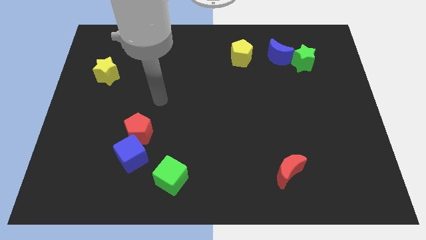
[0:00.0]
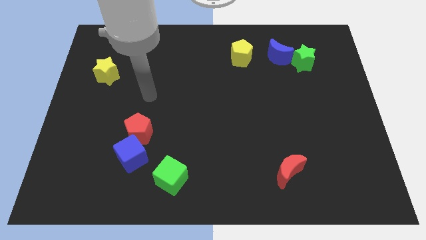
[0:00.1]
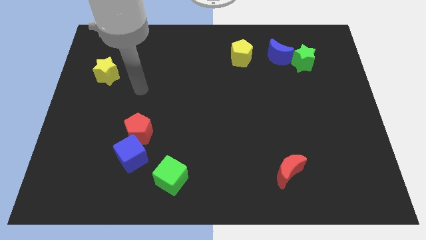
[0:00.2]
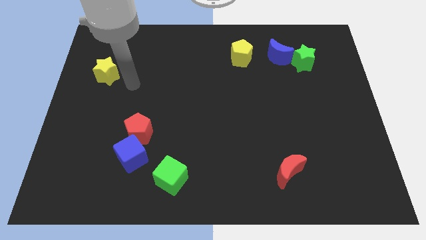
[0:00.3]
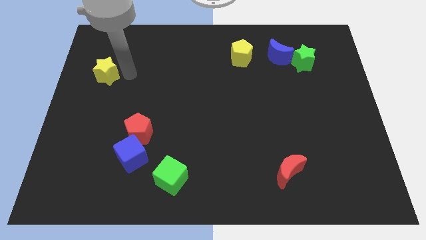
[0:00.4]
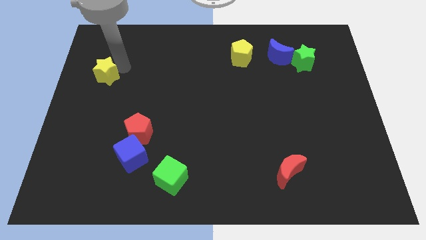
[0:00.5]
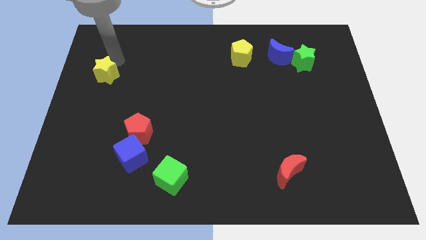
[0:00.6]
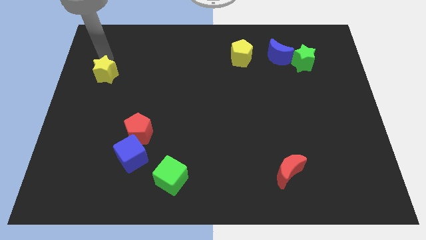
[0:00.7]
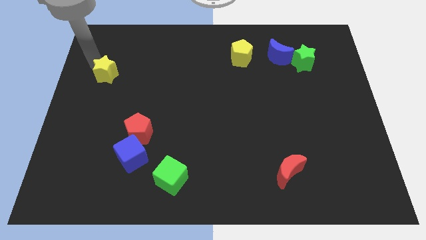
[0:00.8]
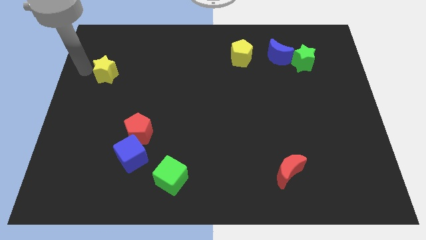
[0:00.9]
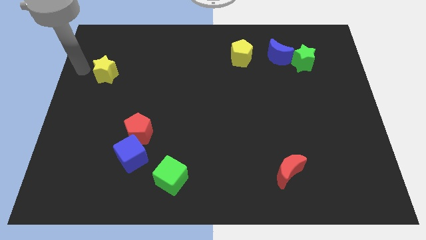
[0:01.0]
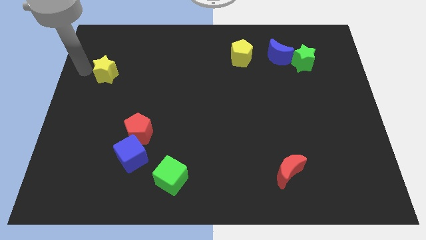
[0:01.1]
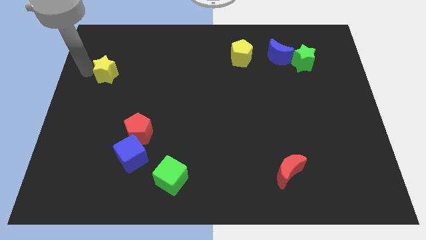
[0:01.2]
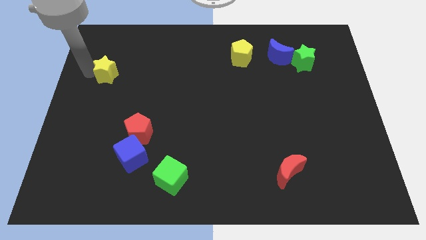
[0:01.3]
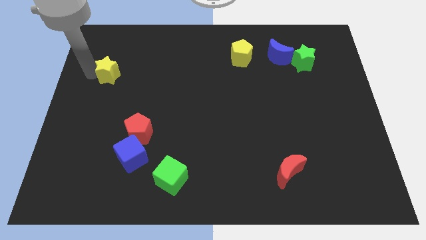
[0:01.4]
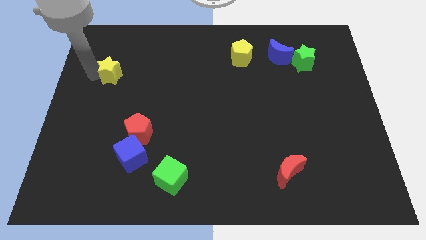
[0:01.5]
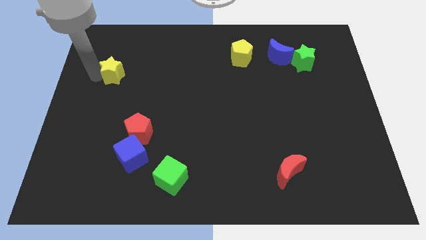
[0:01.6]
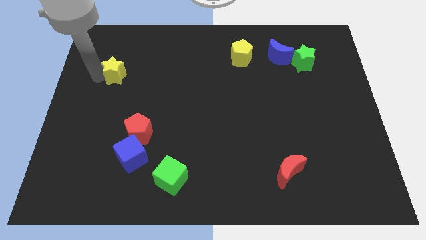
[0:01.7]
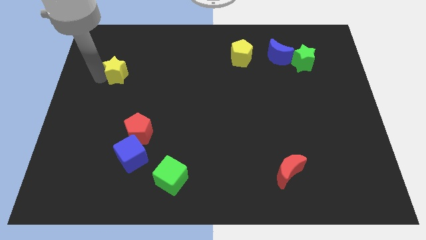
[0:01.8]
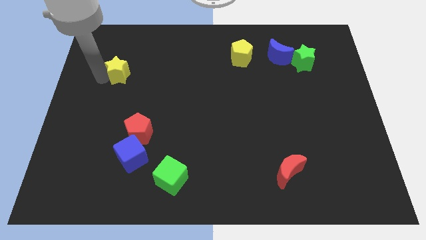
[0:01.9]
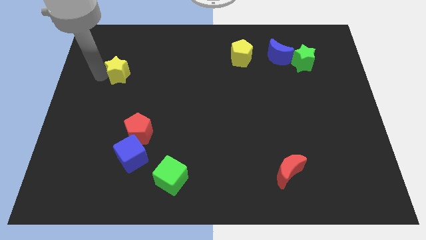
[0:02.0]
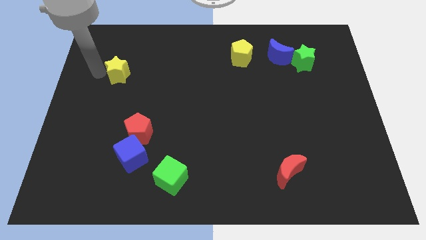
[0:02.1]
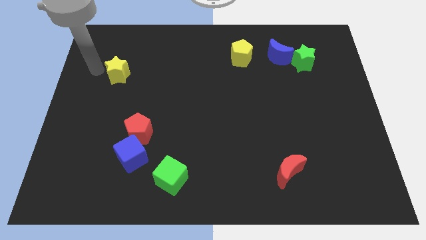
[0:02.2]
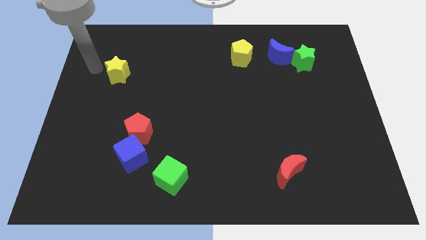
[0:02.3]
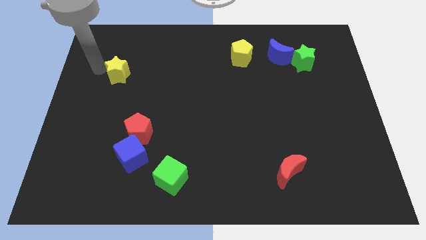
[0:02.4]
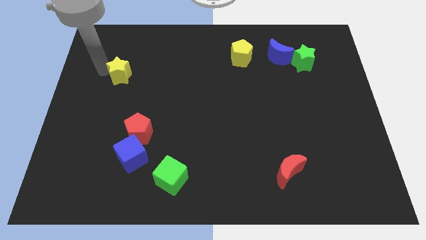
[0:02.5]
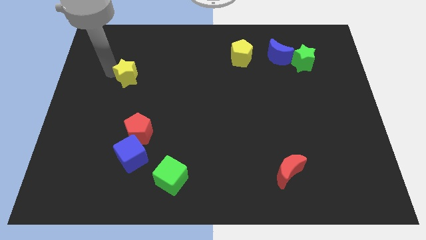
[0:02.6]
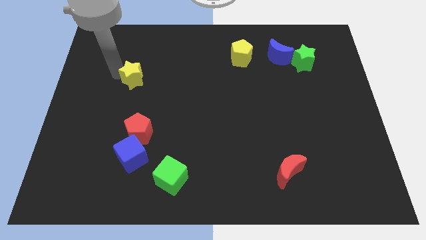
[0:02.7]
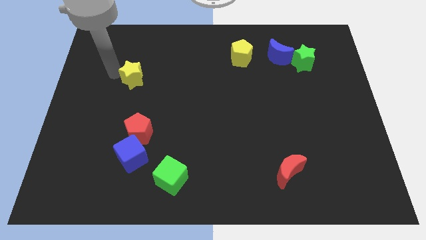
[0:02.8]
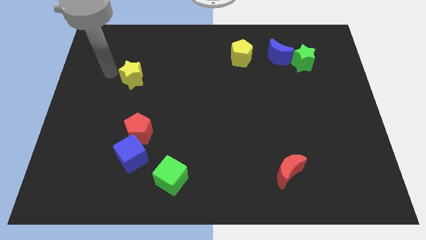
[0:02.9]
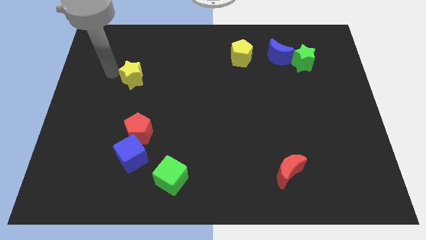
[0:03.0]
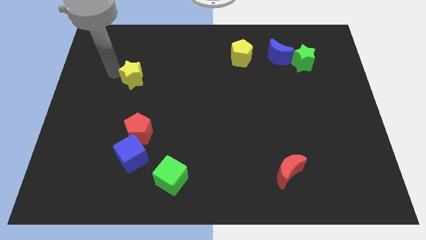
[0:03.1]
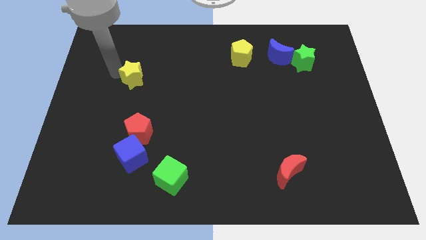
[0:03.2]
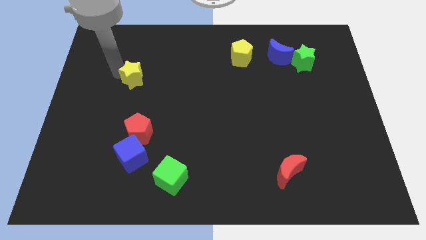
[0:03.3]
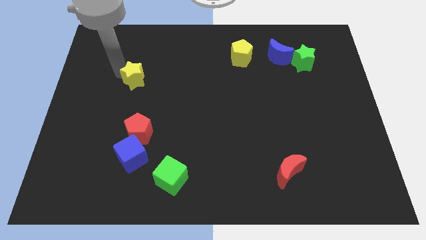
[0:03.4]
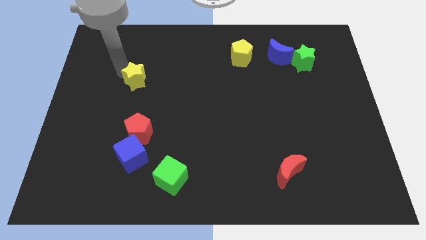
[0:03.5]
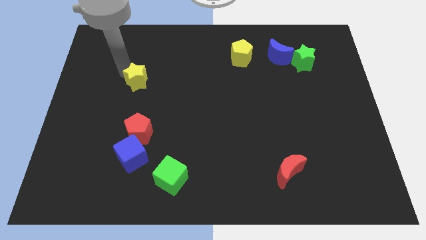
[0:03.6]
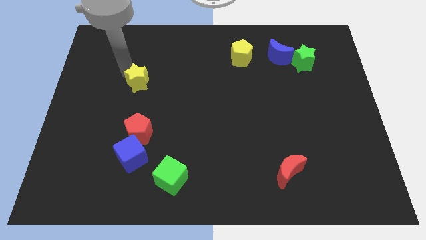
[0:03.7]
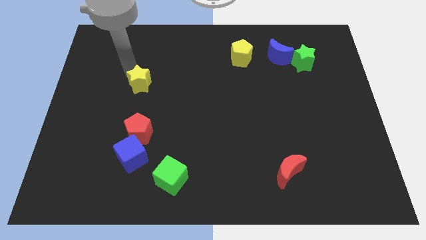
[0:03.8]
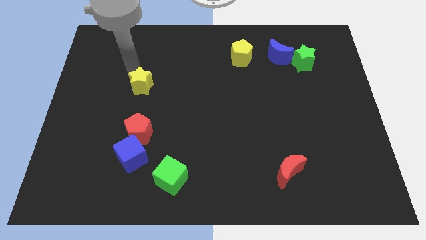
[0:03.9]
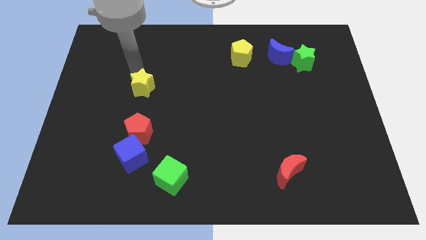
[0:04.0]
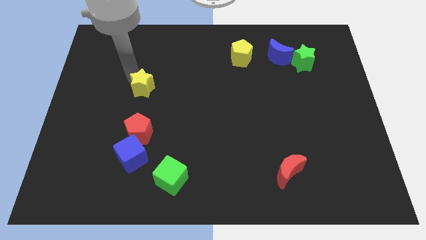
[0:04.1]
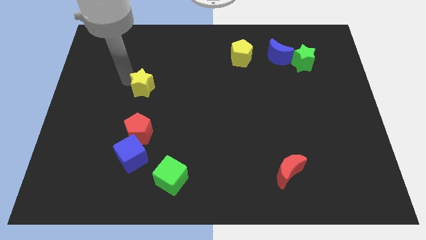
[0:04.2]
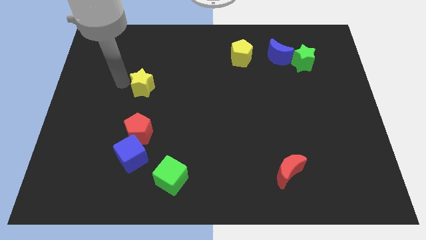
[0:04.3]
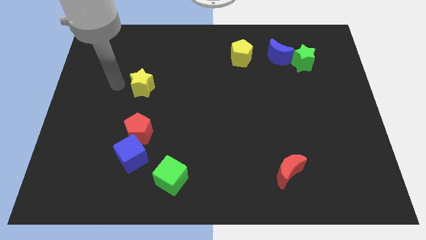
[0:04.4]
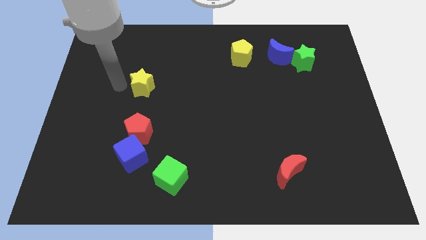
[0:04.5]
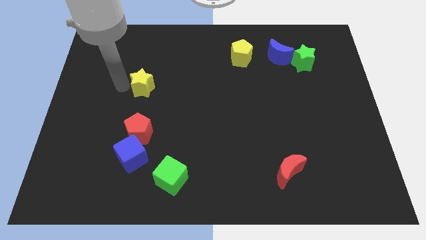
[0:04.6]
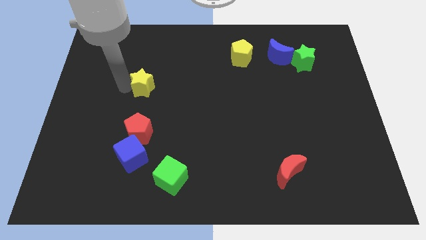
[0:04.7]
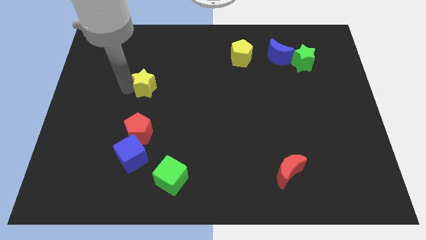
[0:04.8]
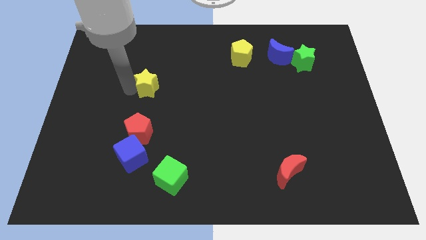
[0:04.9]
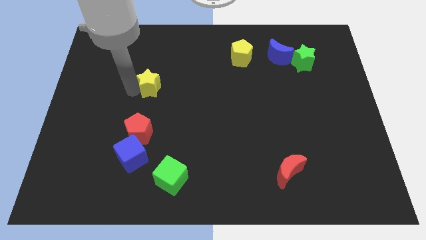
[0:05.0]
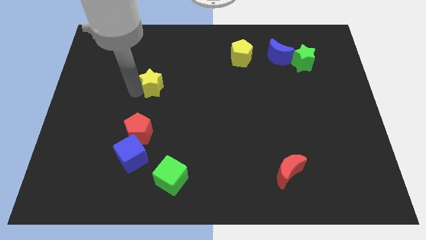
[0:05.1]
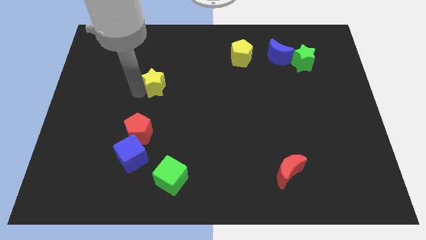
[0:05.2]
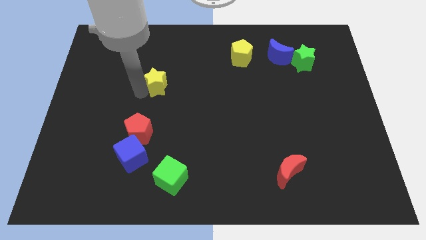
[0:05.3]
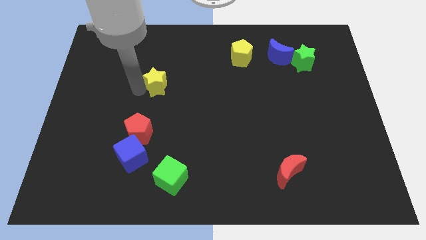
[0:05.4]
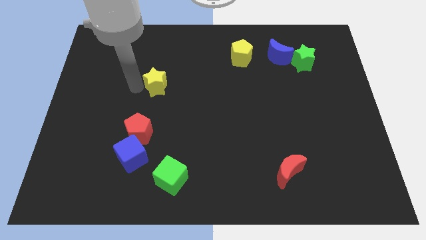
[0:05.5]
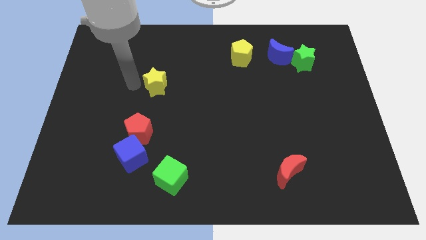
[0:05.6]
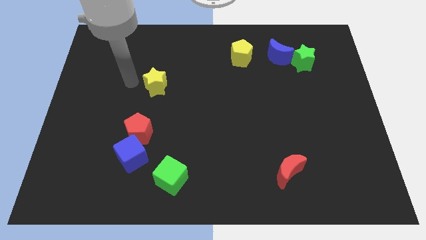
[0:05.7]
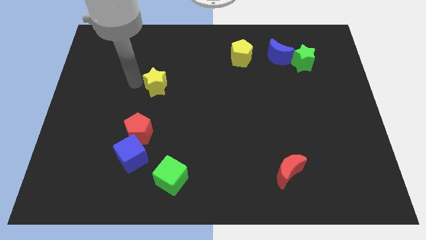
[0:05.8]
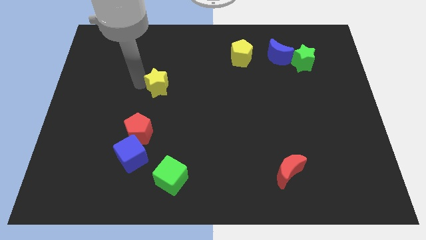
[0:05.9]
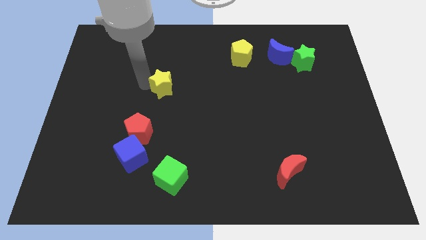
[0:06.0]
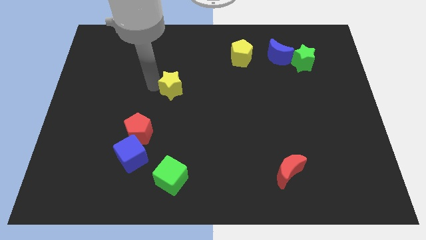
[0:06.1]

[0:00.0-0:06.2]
slide the yellow star to the middle of the board

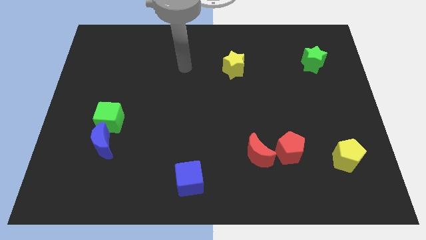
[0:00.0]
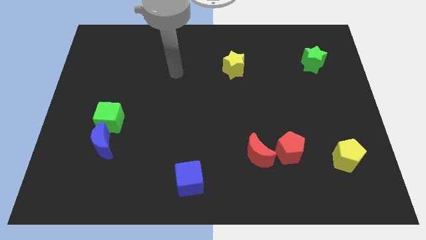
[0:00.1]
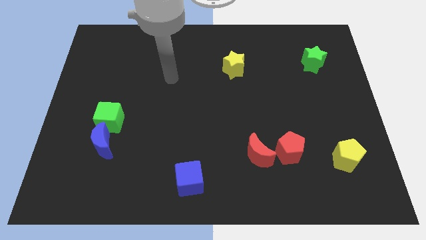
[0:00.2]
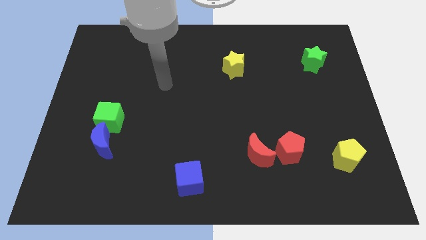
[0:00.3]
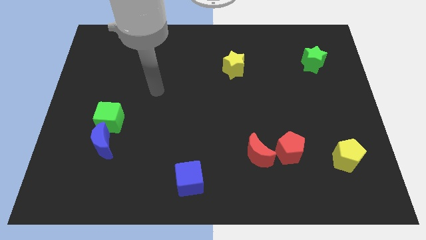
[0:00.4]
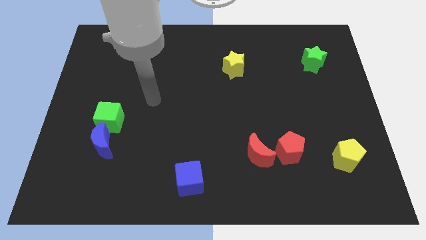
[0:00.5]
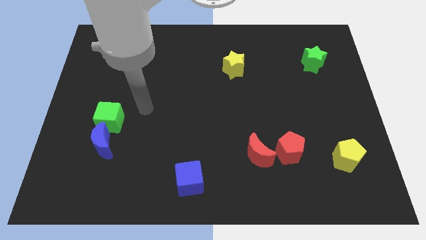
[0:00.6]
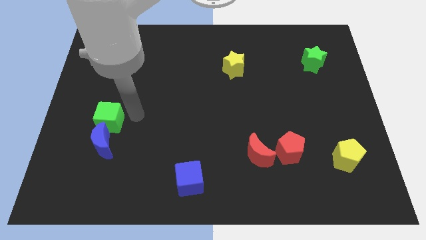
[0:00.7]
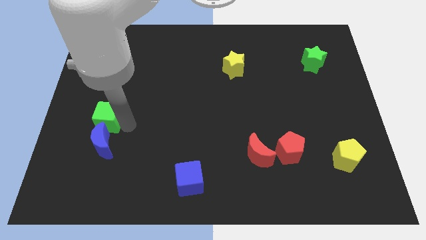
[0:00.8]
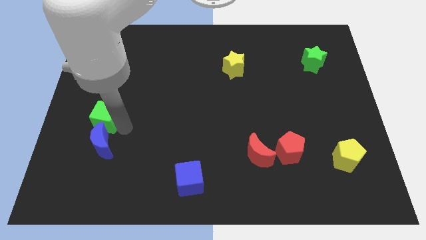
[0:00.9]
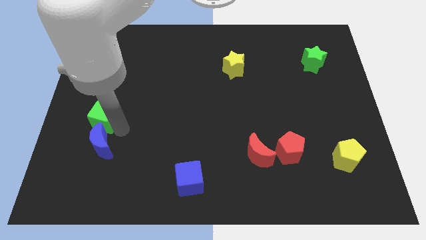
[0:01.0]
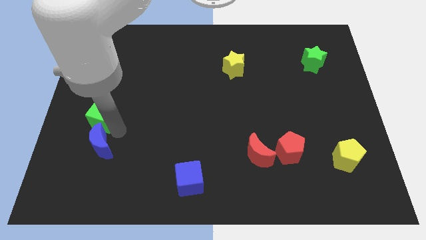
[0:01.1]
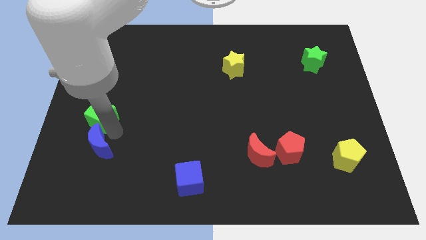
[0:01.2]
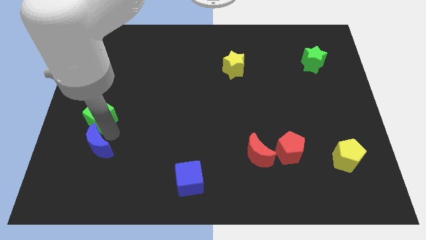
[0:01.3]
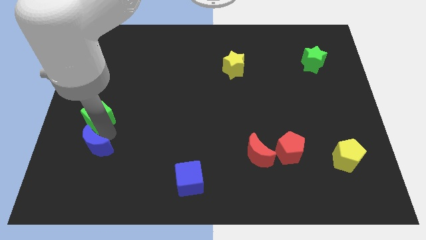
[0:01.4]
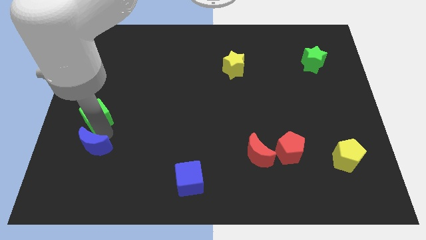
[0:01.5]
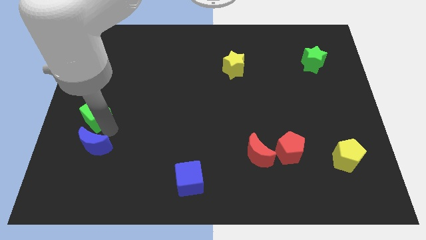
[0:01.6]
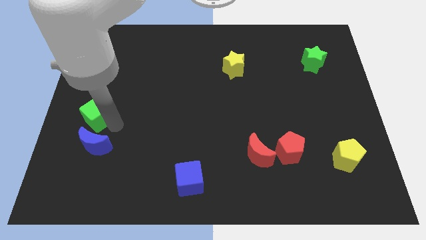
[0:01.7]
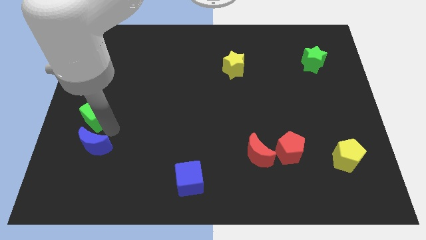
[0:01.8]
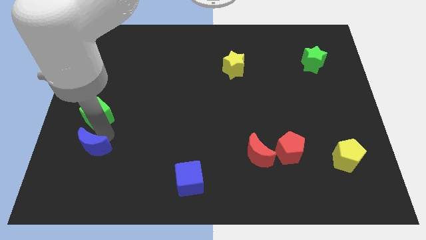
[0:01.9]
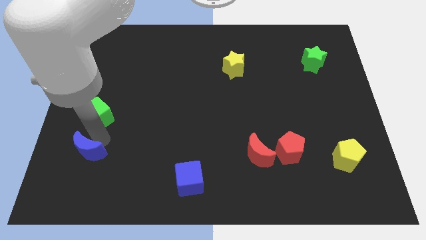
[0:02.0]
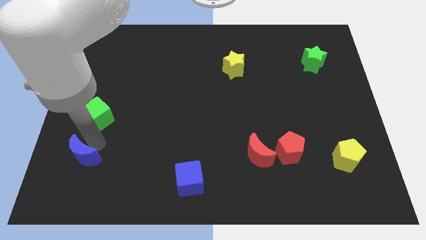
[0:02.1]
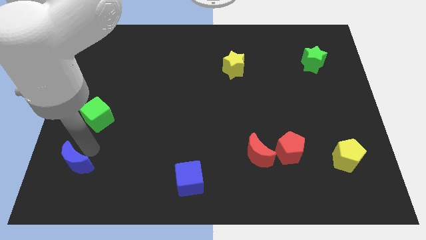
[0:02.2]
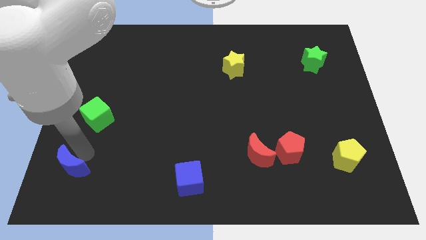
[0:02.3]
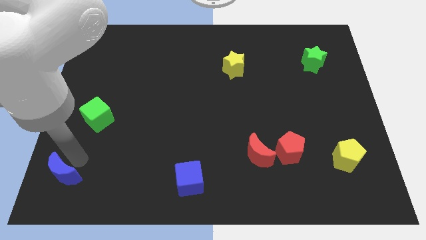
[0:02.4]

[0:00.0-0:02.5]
push the blue moon to the lower left corner
